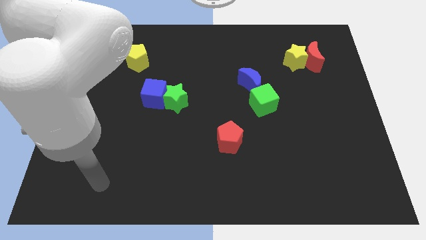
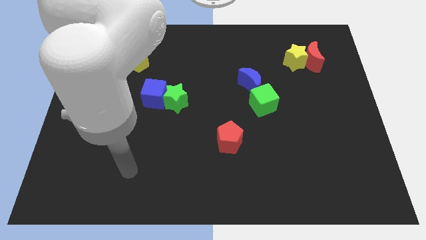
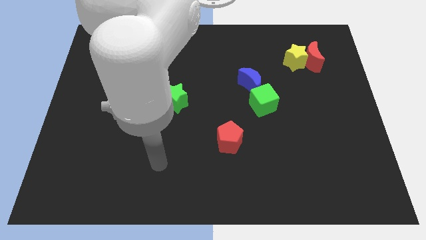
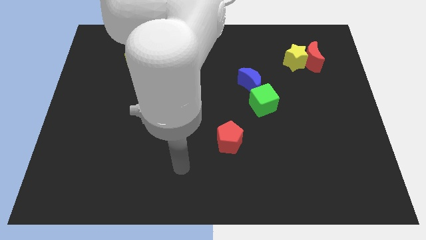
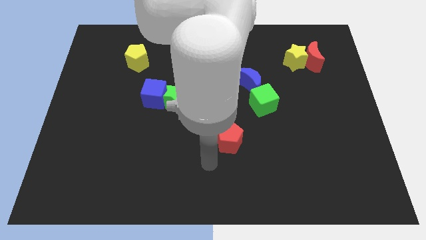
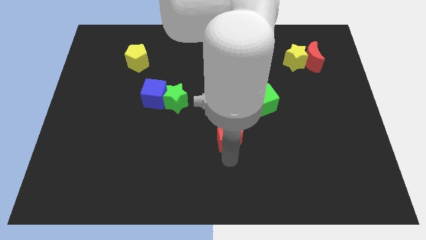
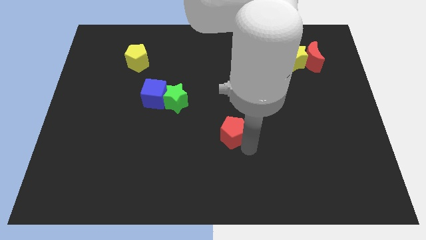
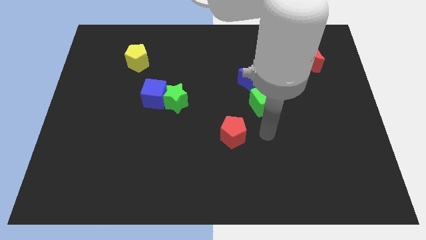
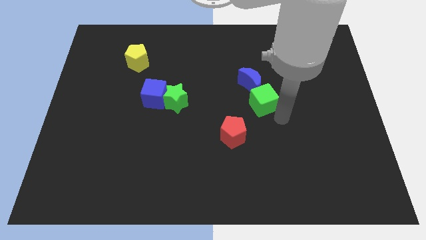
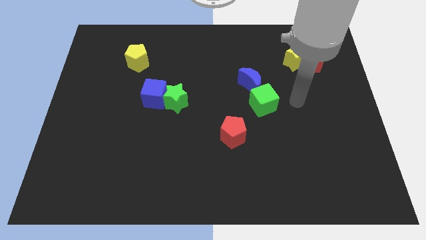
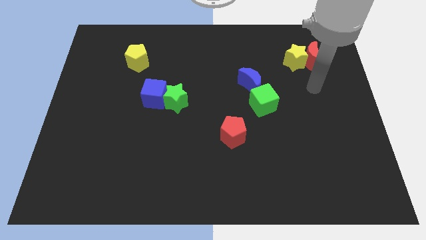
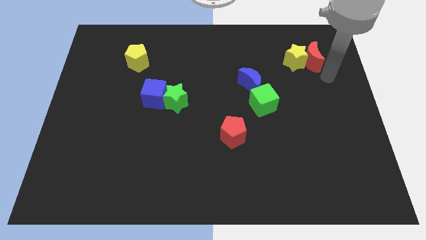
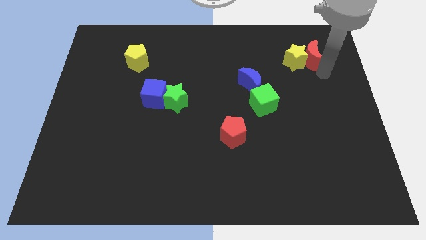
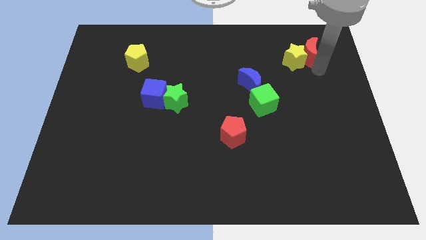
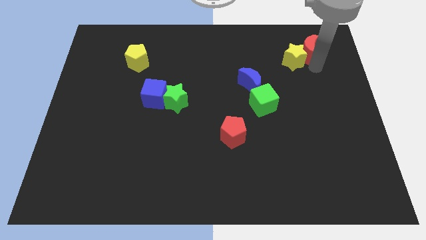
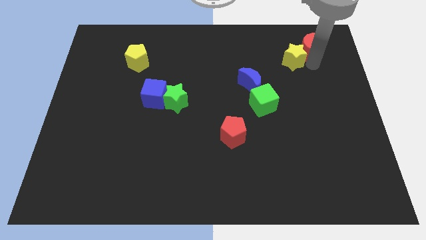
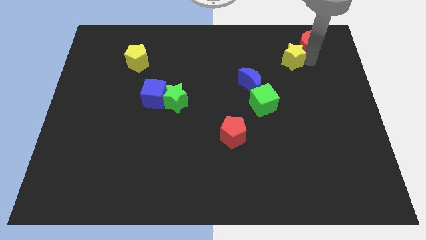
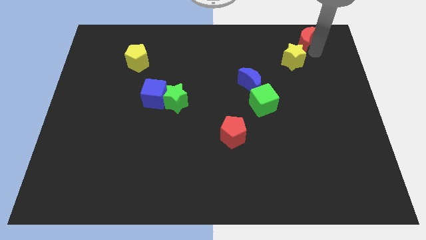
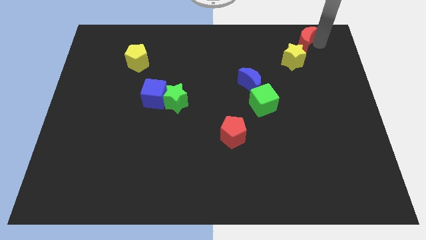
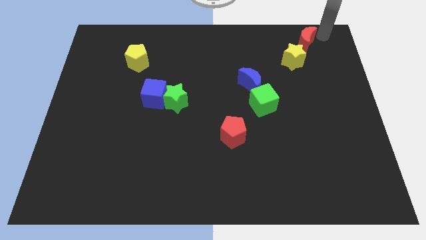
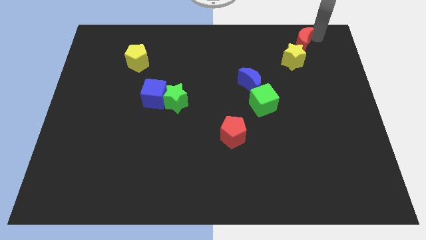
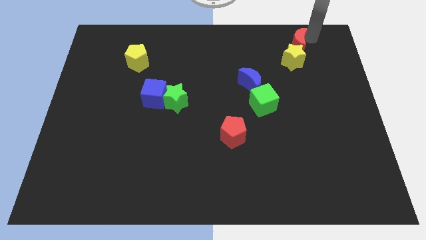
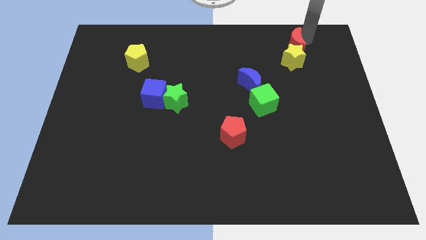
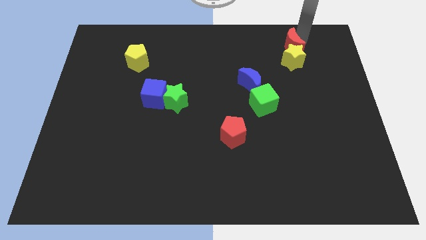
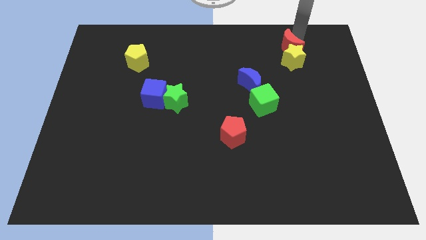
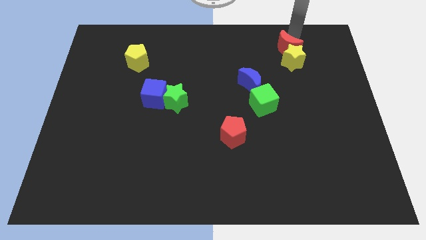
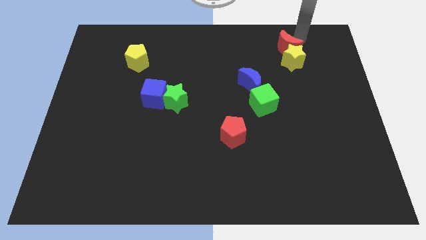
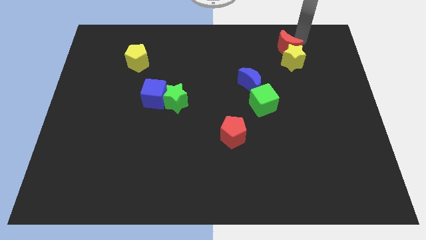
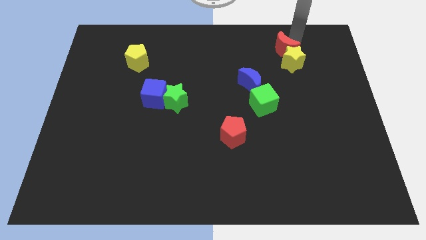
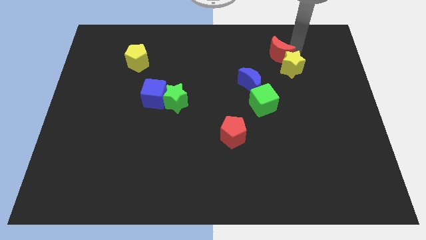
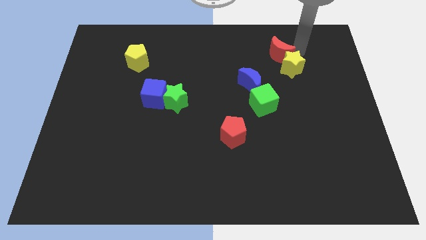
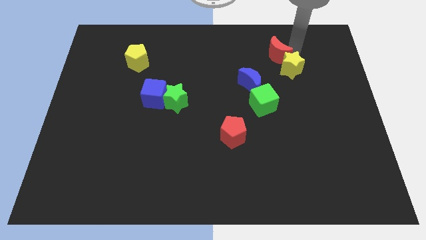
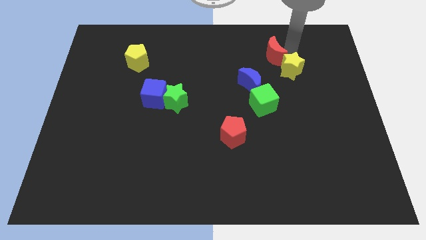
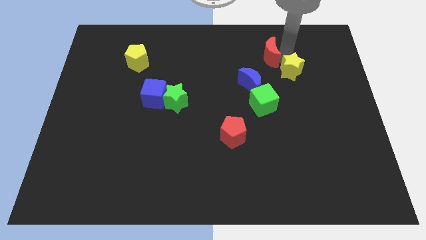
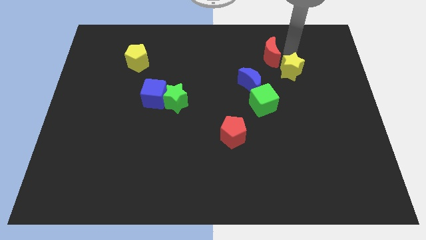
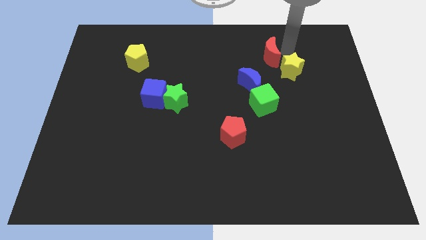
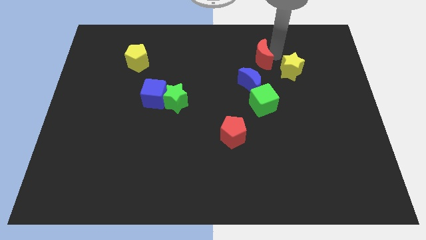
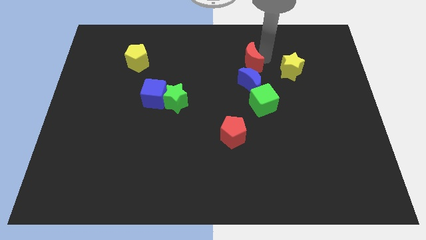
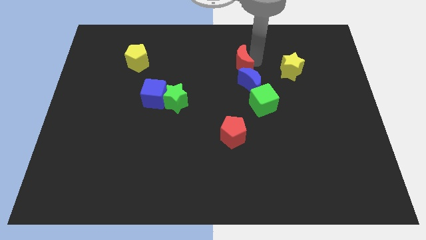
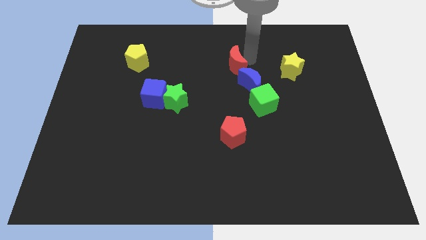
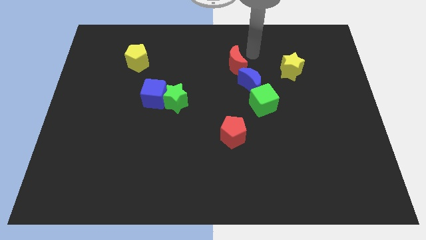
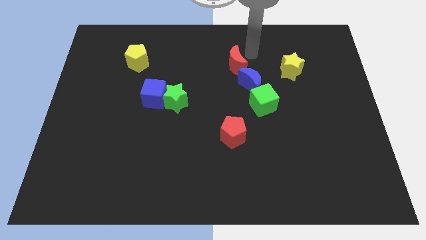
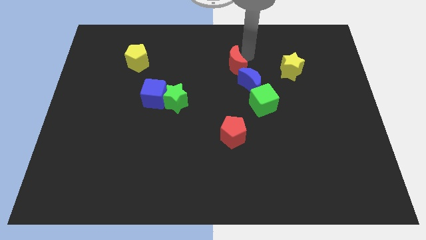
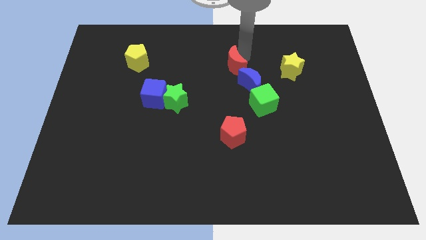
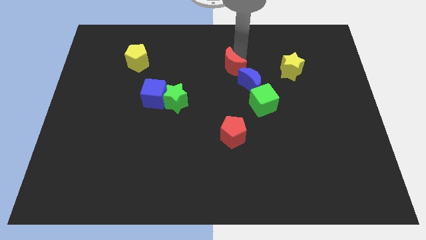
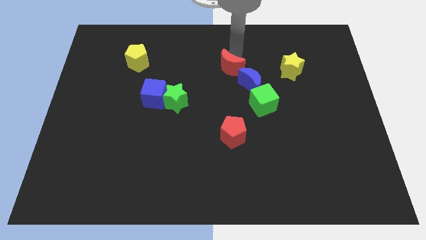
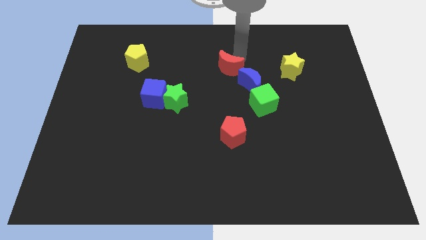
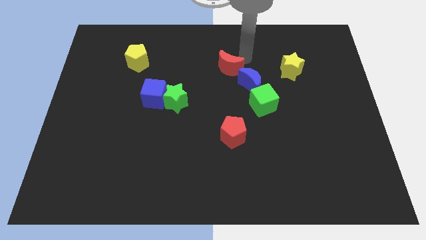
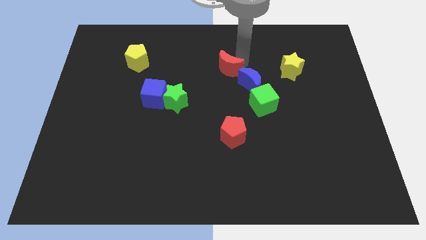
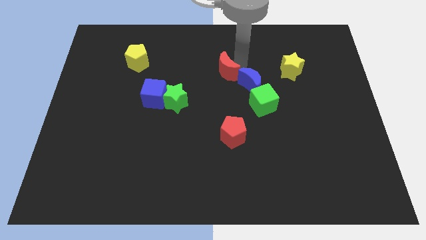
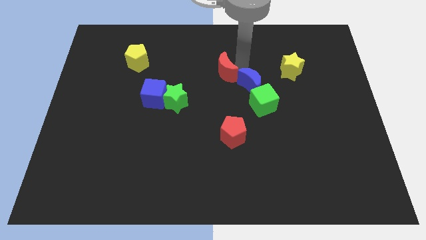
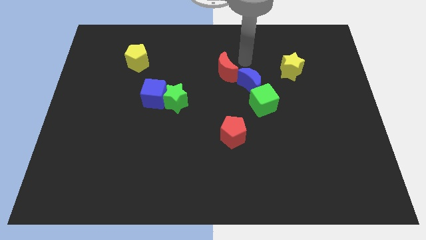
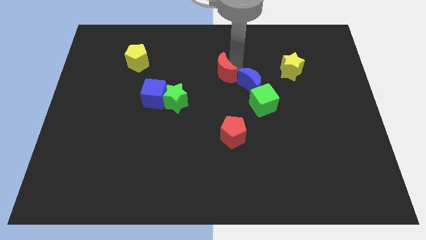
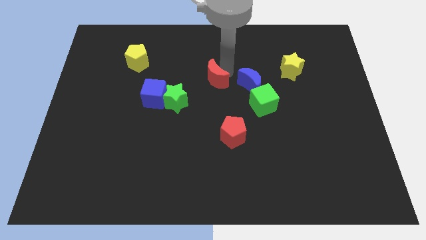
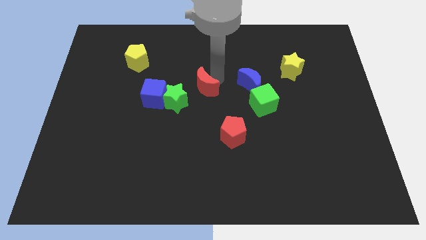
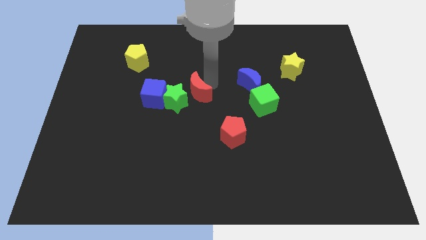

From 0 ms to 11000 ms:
move the red moon towards the green star

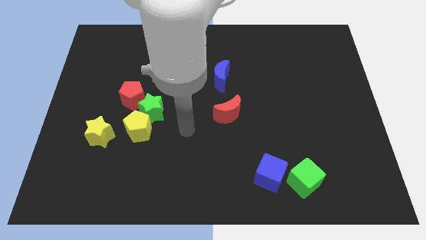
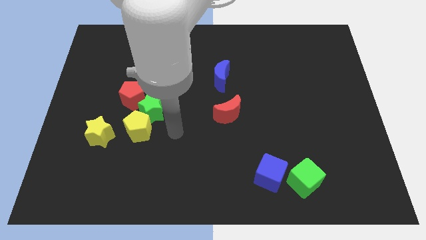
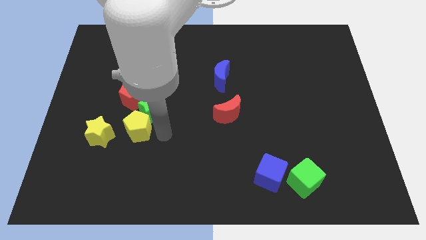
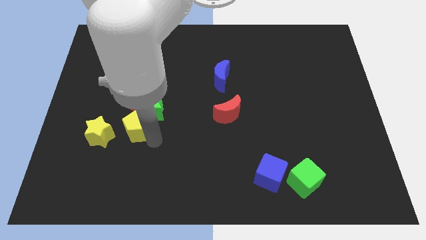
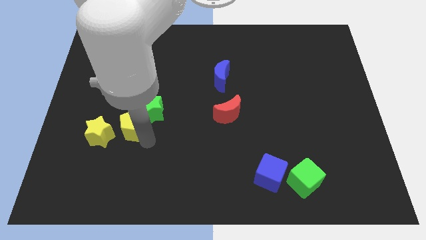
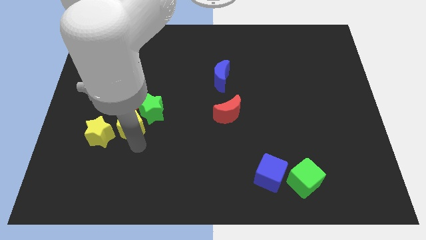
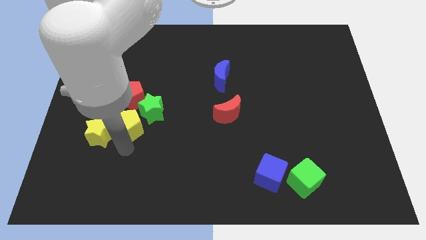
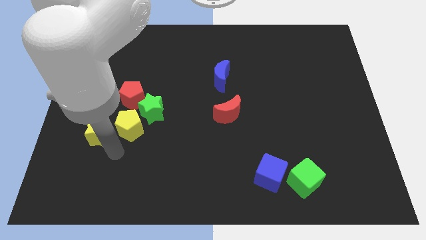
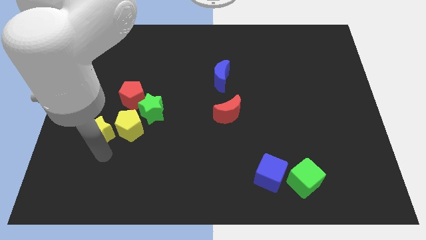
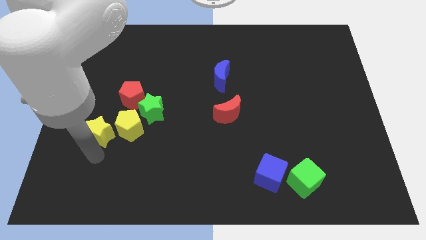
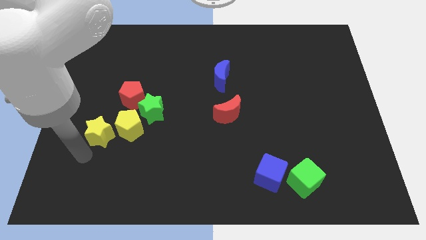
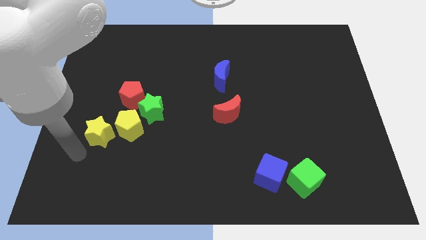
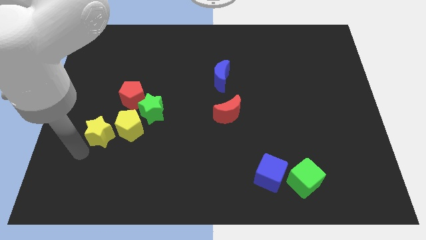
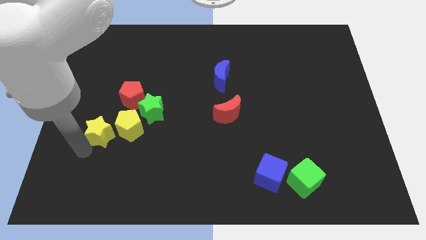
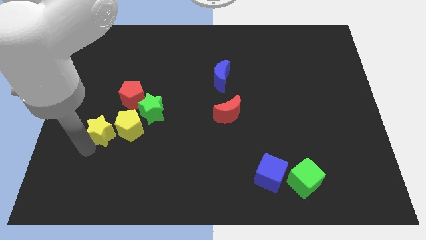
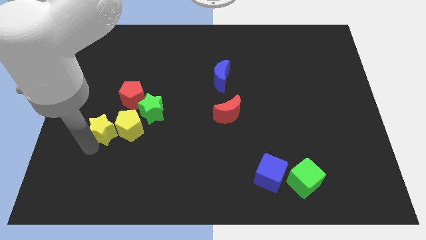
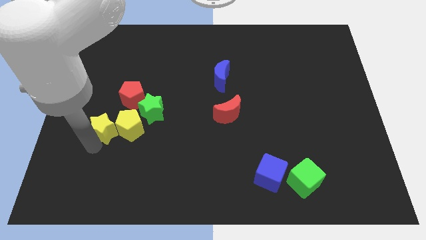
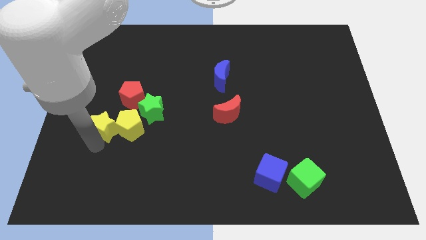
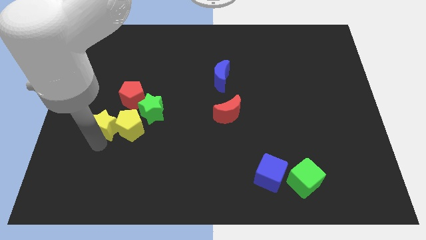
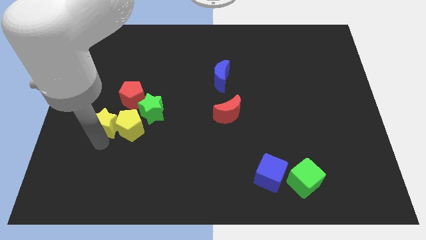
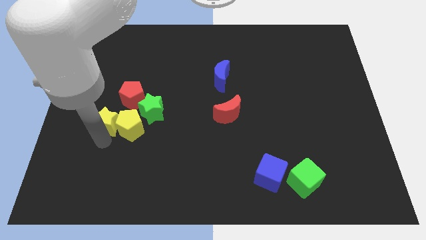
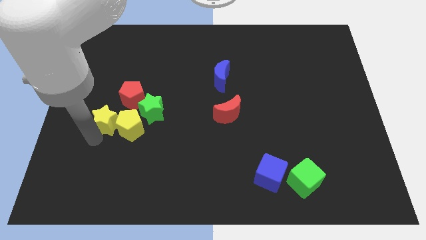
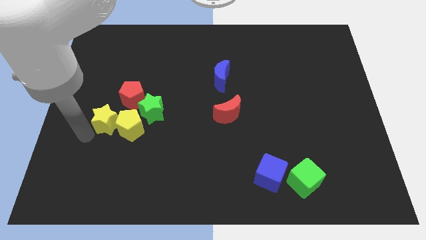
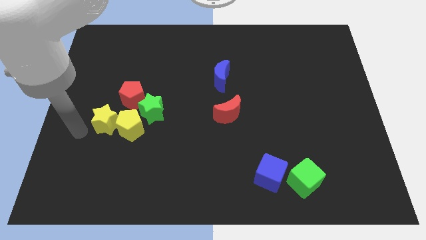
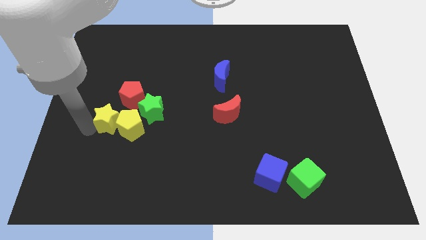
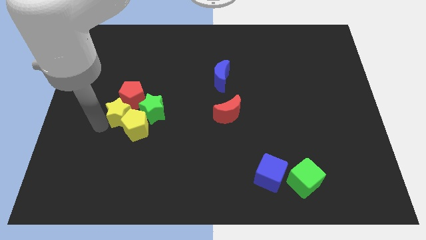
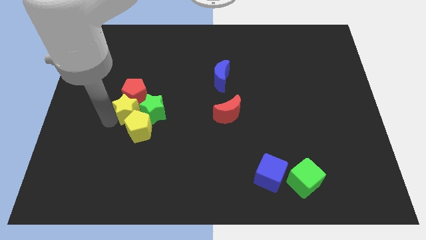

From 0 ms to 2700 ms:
put the yellow star to the green star
